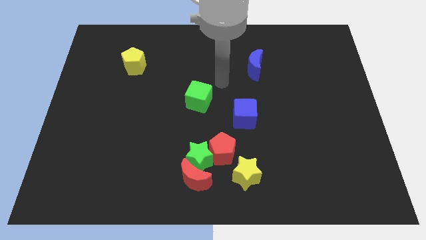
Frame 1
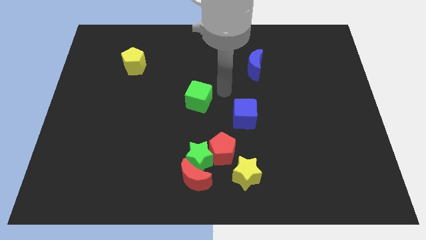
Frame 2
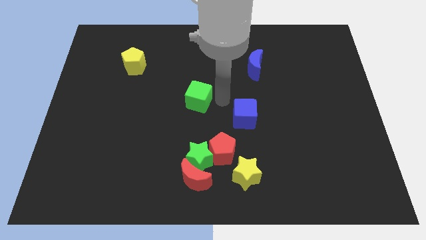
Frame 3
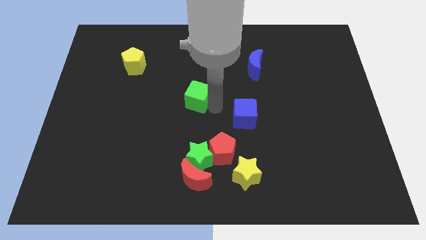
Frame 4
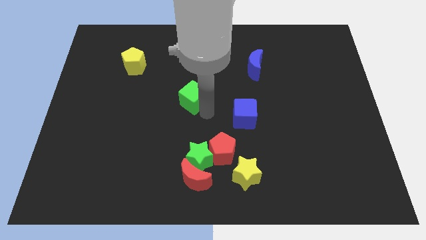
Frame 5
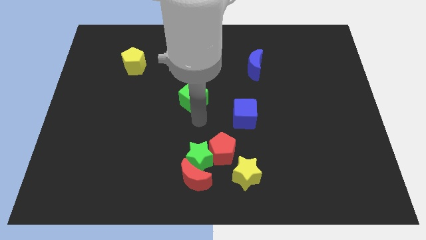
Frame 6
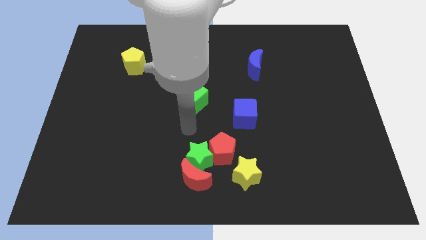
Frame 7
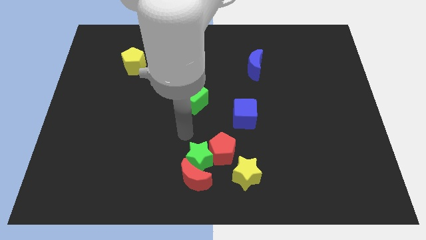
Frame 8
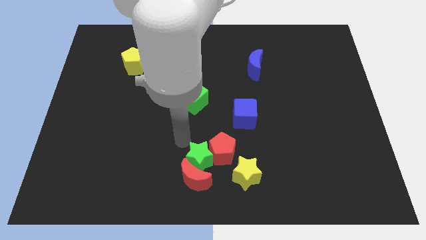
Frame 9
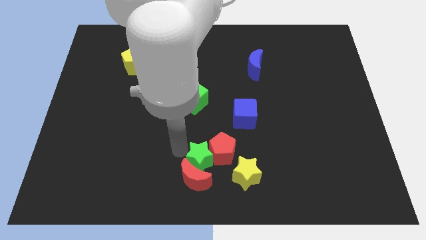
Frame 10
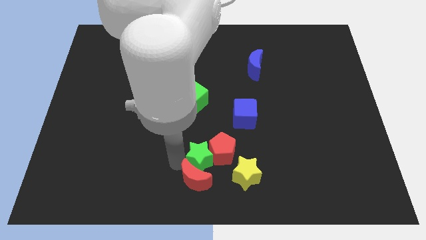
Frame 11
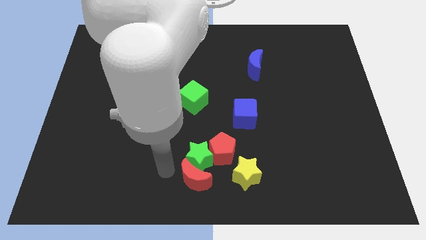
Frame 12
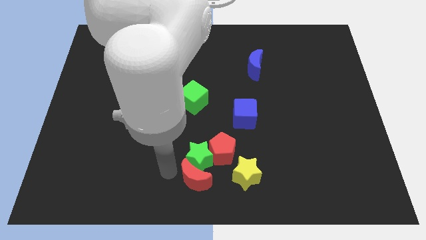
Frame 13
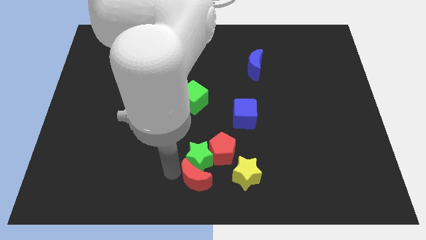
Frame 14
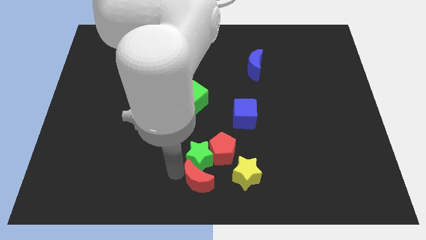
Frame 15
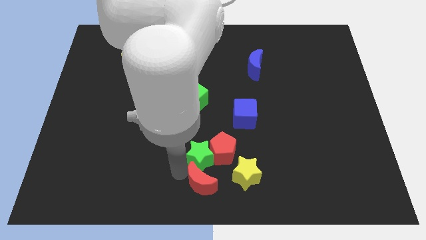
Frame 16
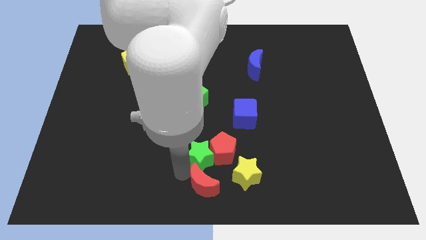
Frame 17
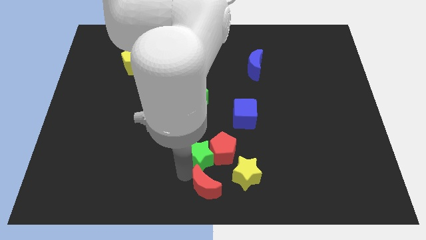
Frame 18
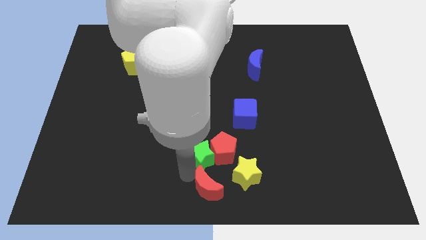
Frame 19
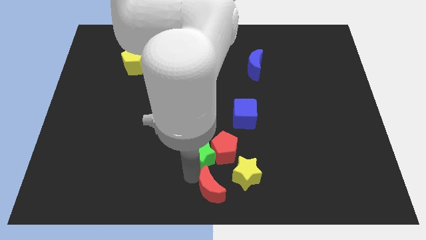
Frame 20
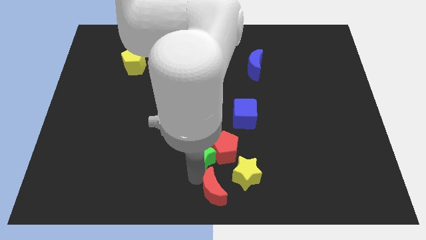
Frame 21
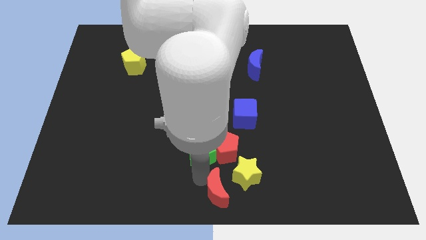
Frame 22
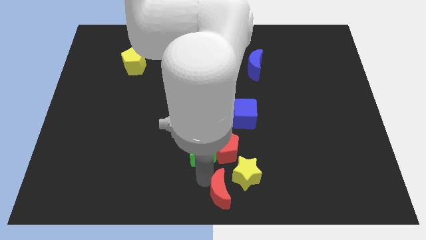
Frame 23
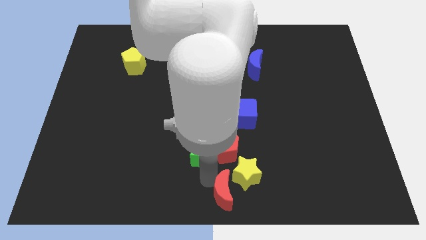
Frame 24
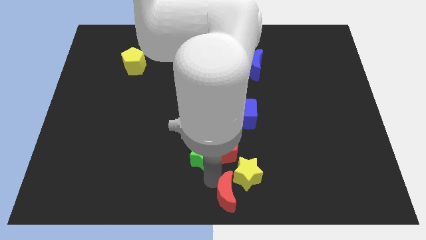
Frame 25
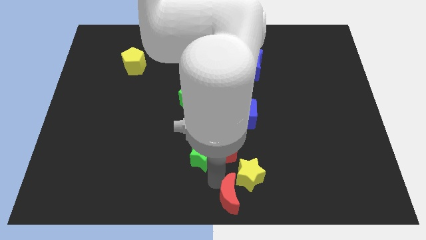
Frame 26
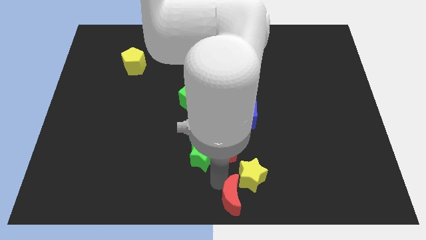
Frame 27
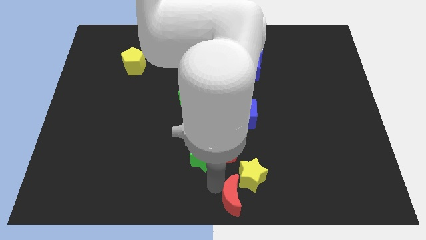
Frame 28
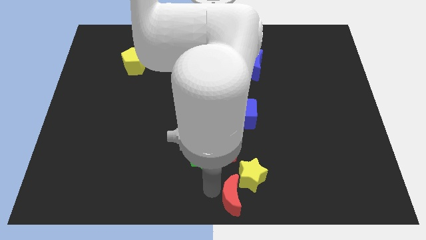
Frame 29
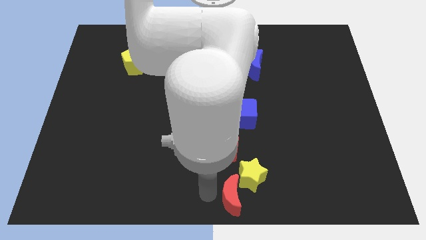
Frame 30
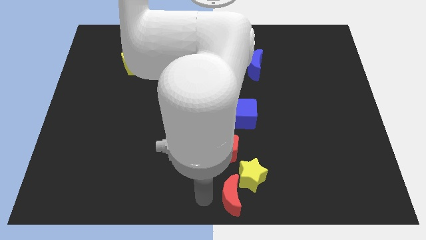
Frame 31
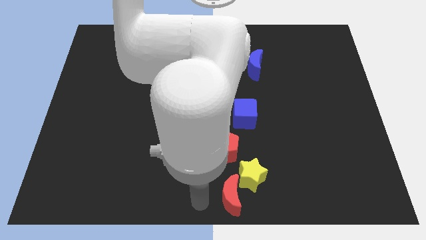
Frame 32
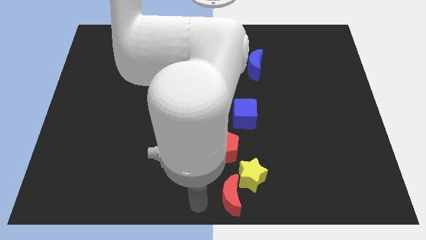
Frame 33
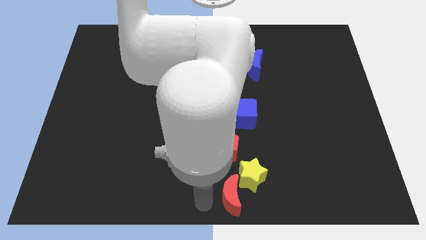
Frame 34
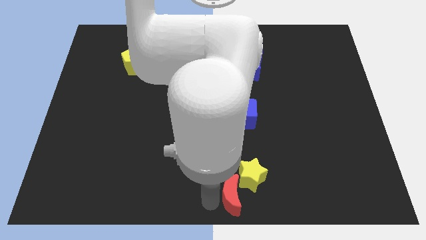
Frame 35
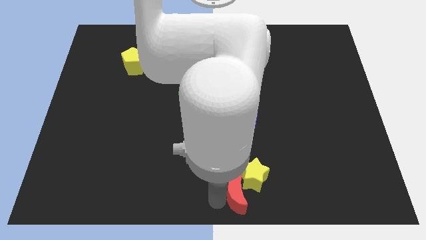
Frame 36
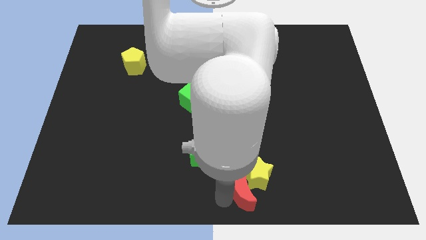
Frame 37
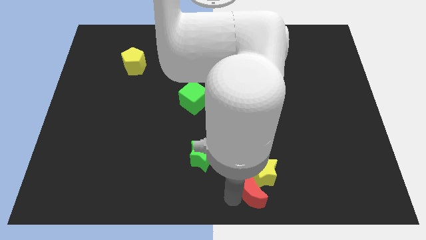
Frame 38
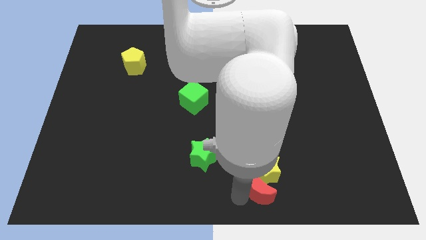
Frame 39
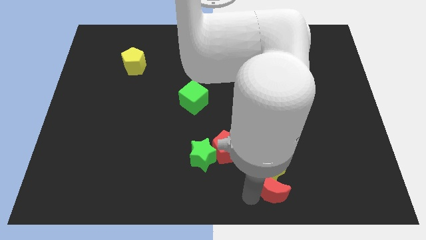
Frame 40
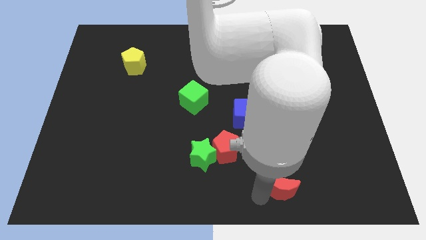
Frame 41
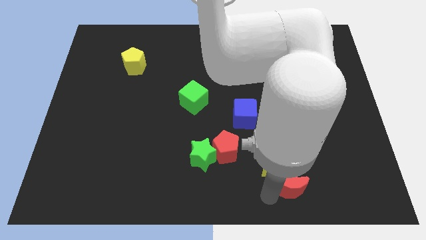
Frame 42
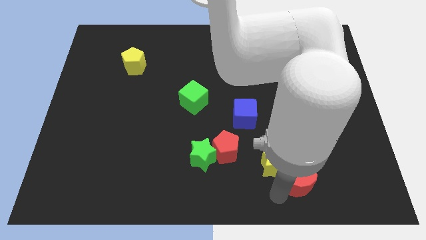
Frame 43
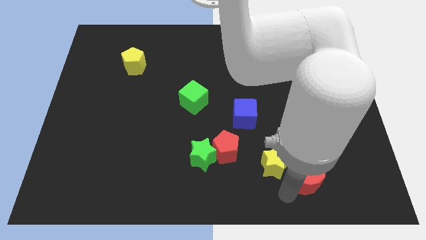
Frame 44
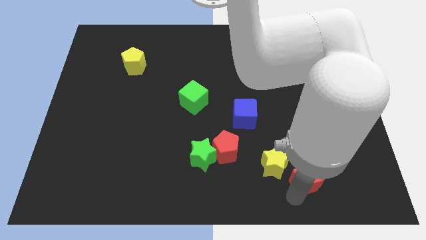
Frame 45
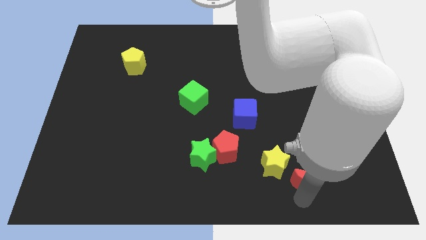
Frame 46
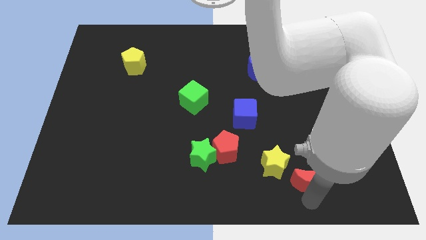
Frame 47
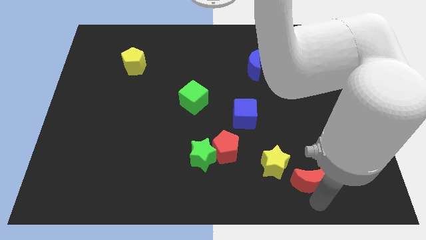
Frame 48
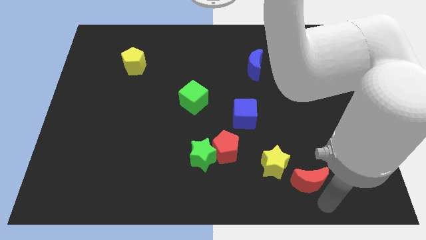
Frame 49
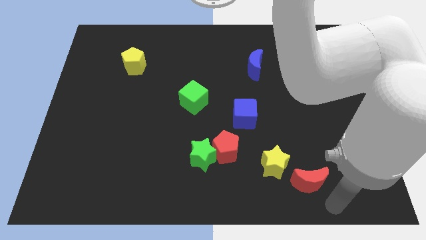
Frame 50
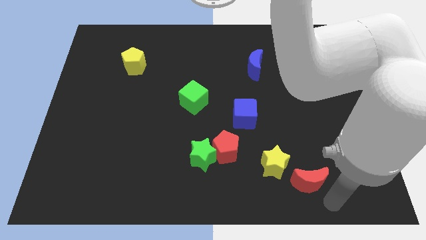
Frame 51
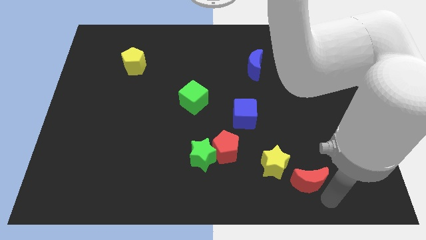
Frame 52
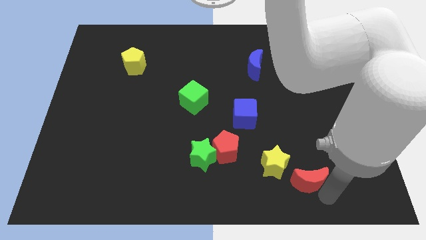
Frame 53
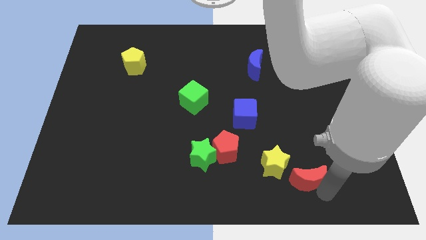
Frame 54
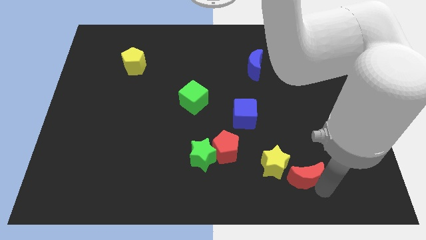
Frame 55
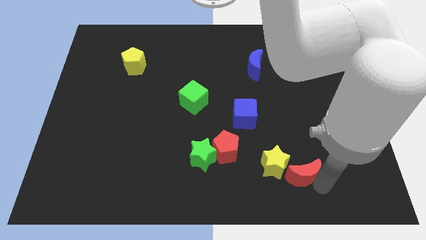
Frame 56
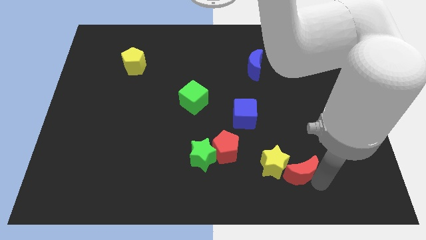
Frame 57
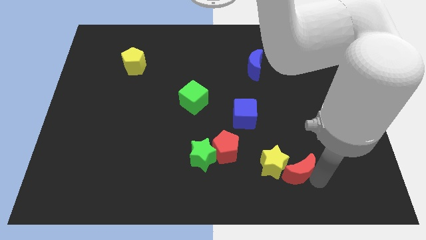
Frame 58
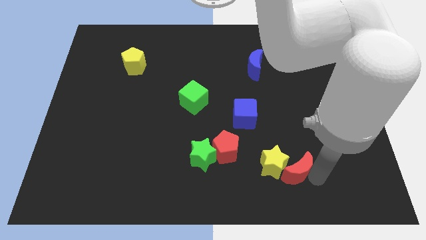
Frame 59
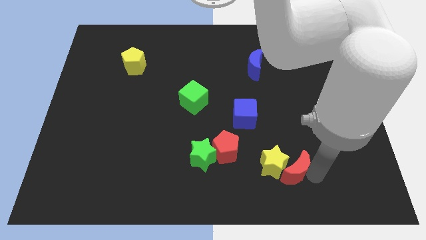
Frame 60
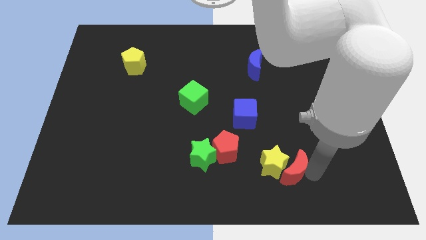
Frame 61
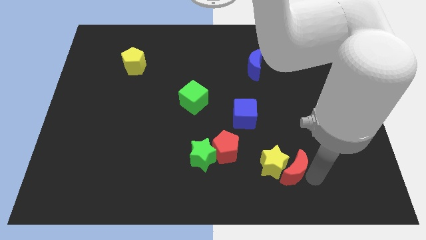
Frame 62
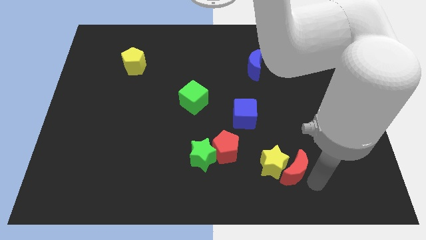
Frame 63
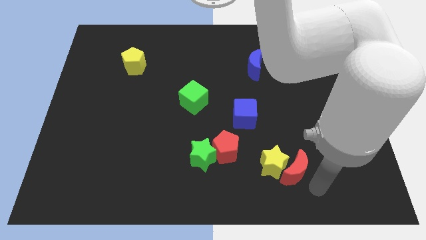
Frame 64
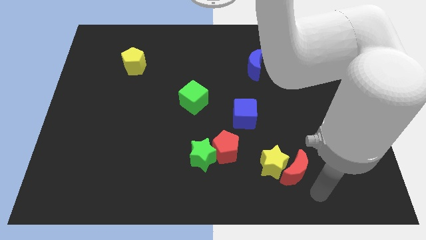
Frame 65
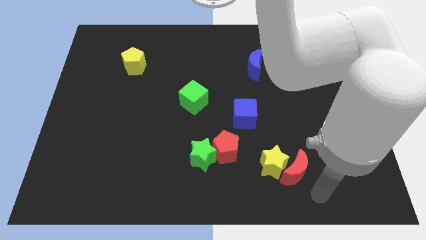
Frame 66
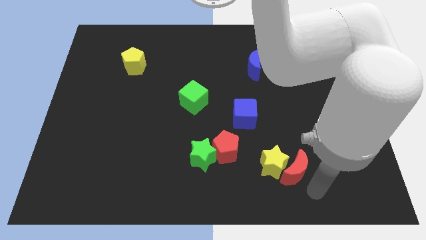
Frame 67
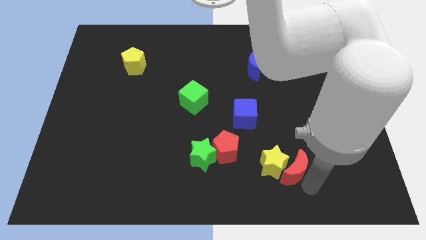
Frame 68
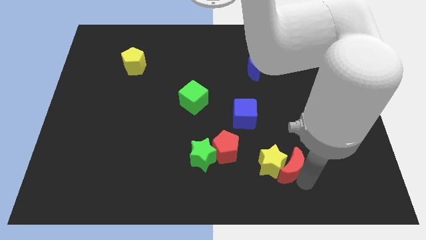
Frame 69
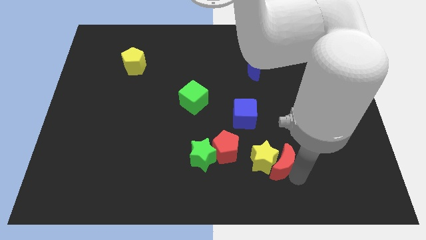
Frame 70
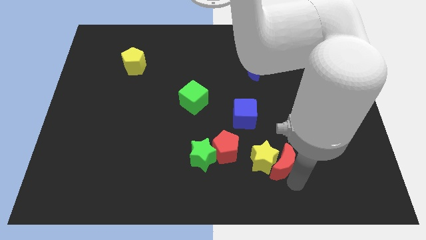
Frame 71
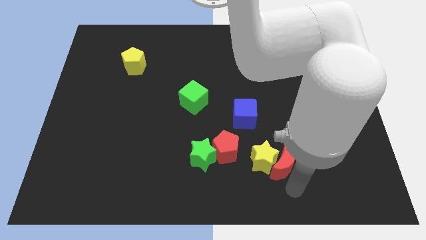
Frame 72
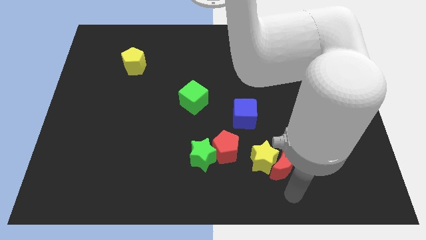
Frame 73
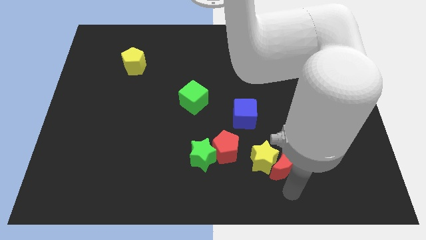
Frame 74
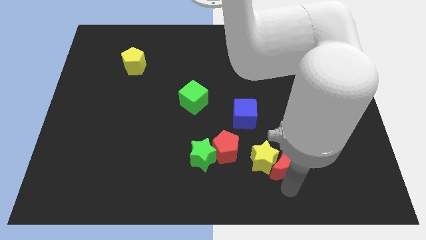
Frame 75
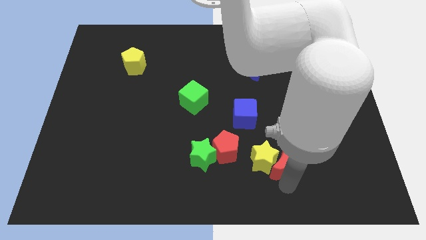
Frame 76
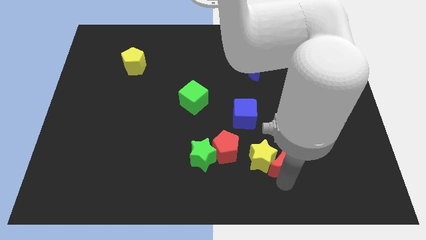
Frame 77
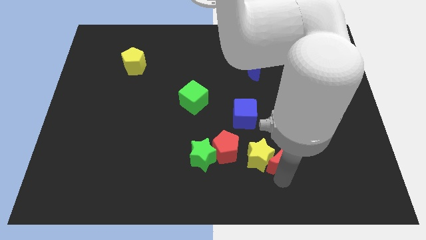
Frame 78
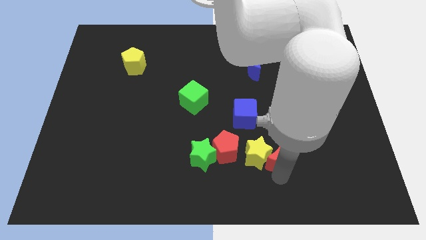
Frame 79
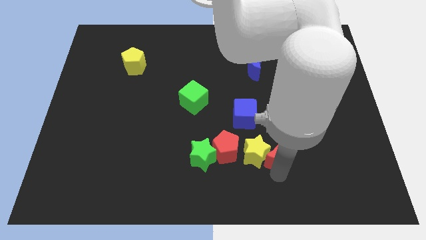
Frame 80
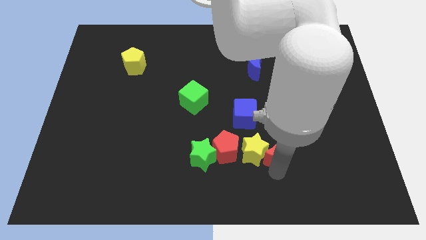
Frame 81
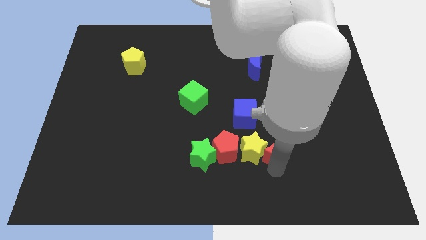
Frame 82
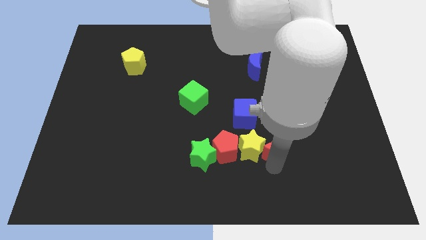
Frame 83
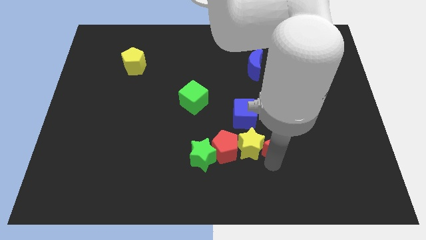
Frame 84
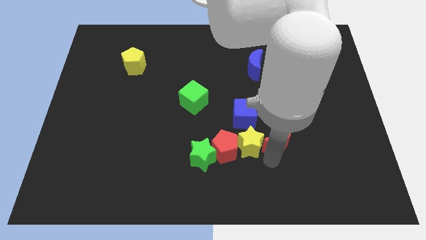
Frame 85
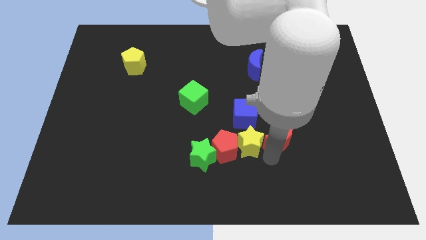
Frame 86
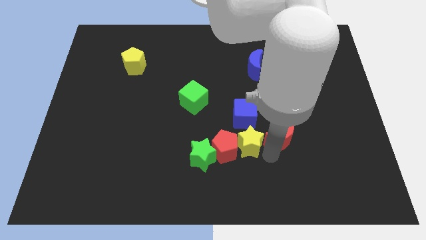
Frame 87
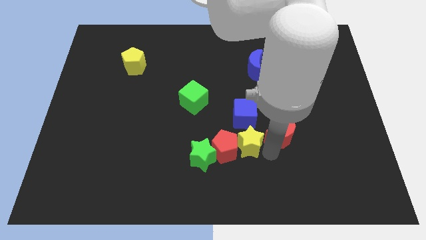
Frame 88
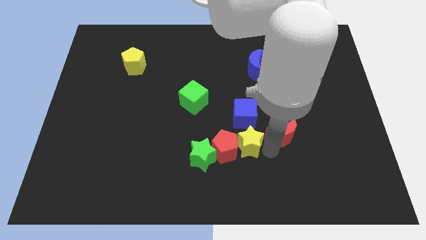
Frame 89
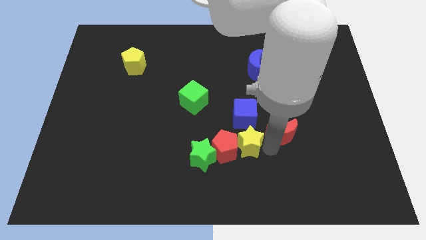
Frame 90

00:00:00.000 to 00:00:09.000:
push the red moon up and right diagonally
